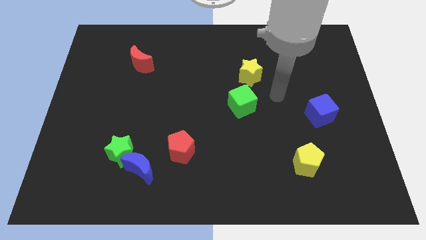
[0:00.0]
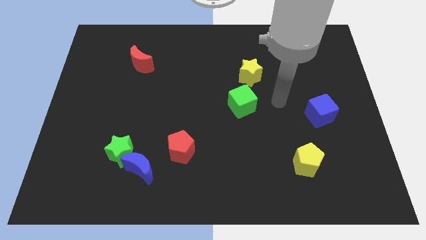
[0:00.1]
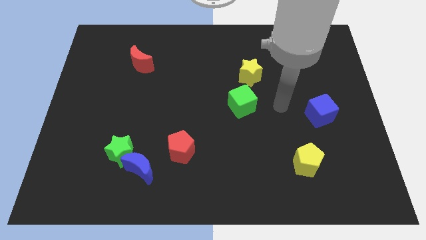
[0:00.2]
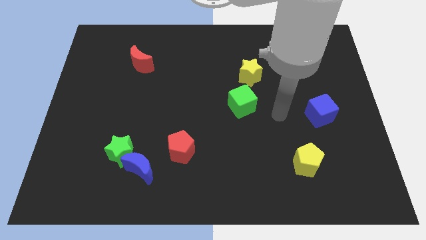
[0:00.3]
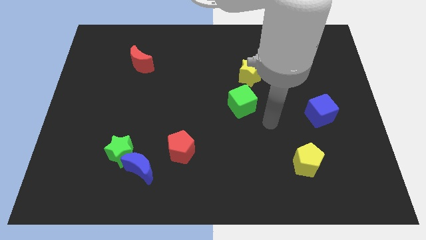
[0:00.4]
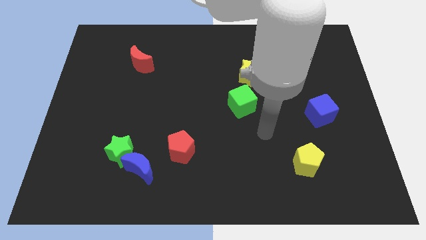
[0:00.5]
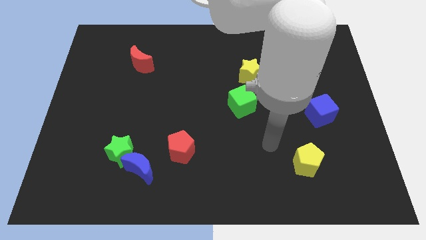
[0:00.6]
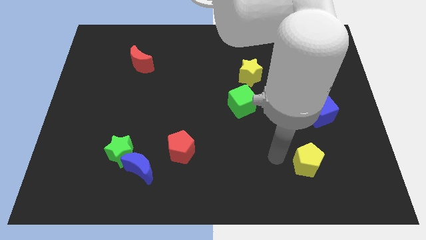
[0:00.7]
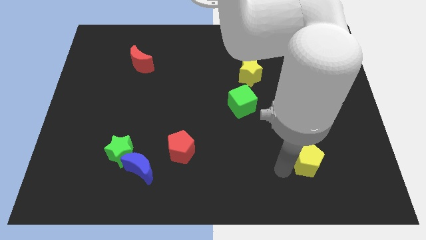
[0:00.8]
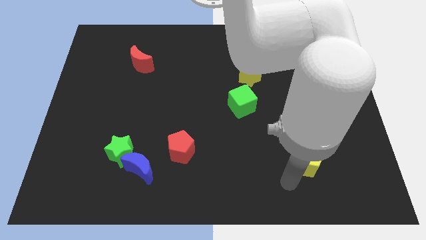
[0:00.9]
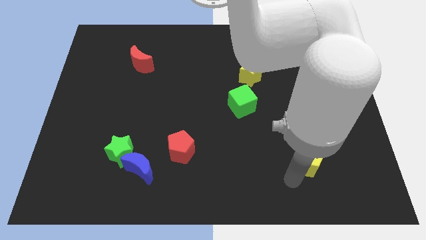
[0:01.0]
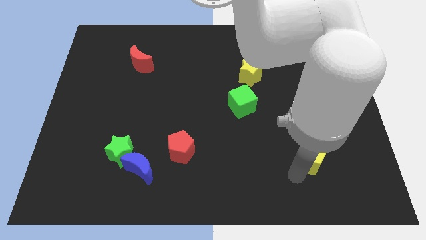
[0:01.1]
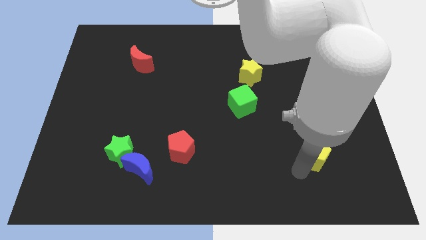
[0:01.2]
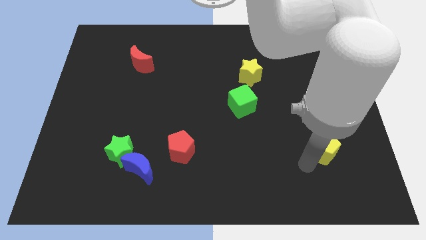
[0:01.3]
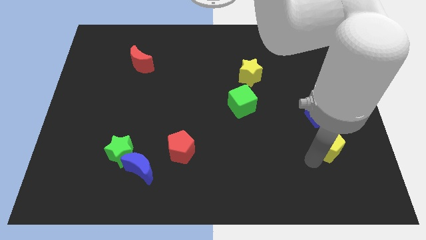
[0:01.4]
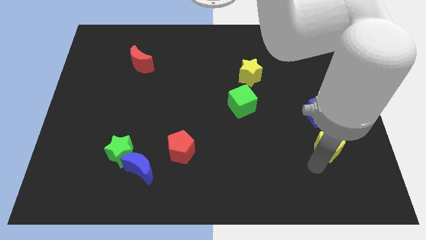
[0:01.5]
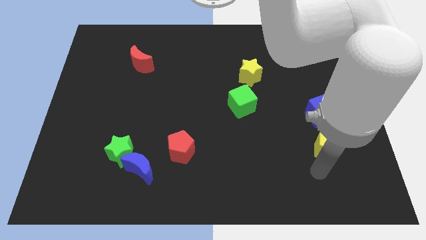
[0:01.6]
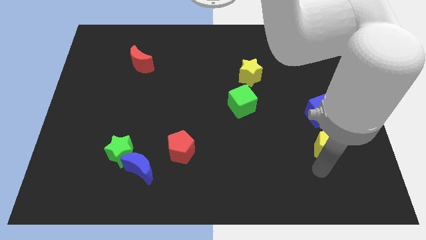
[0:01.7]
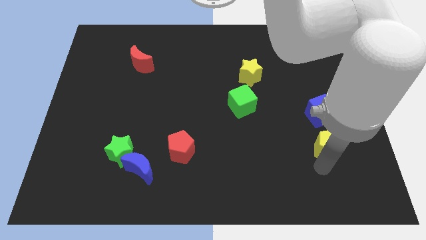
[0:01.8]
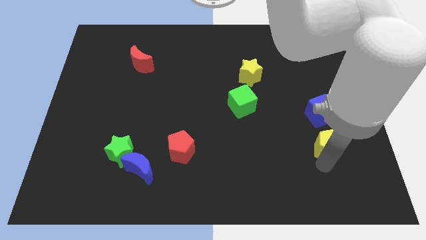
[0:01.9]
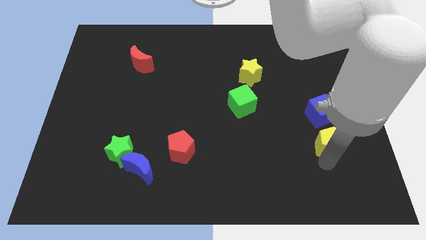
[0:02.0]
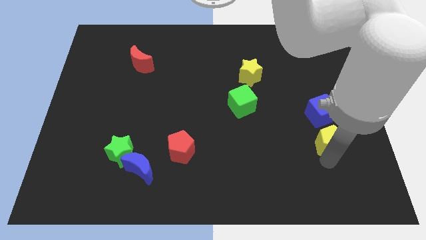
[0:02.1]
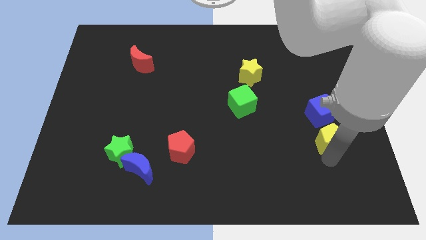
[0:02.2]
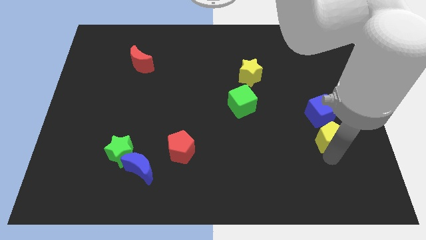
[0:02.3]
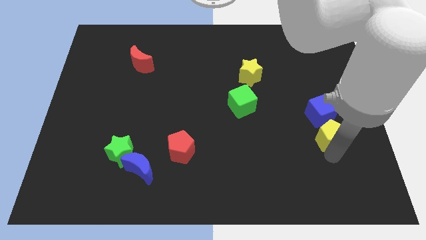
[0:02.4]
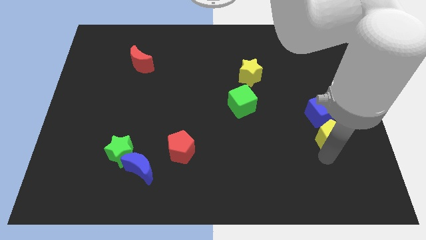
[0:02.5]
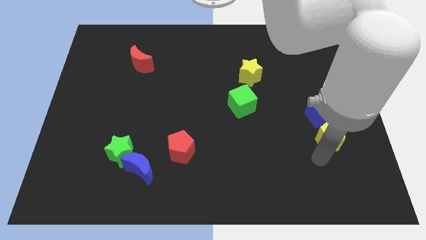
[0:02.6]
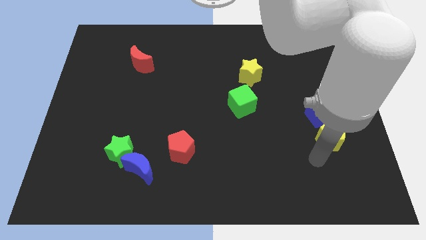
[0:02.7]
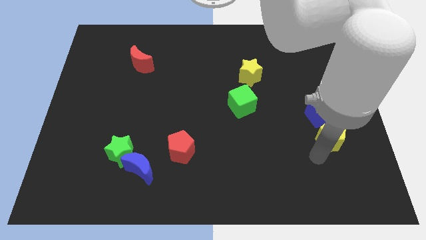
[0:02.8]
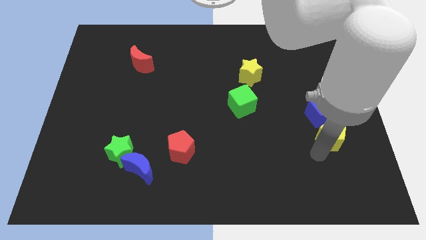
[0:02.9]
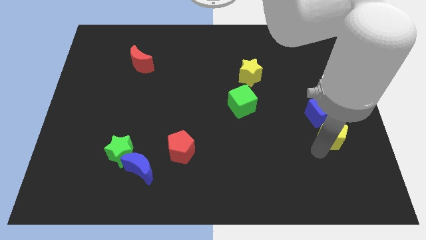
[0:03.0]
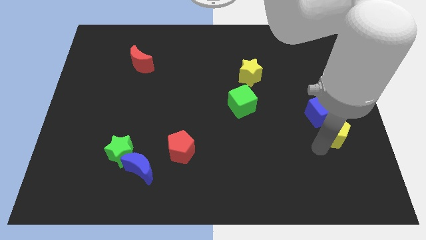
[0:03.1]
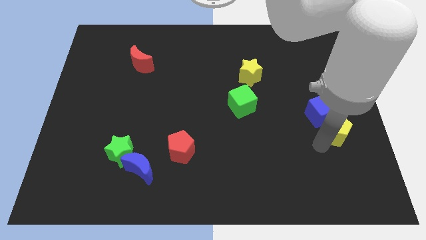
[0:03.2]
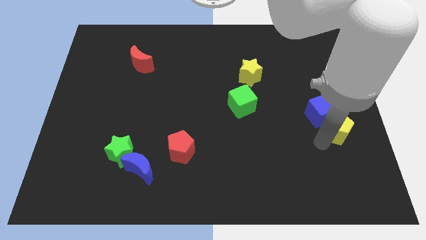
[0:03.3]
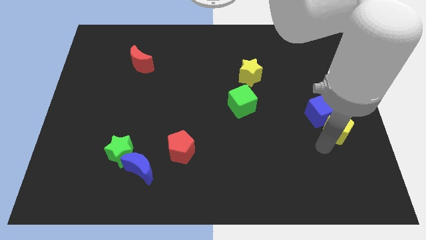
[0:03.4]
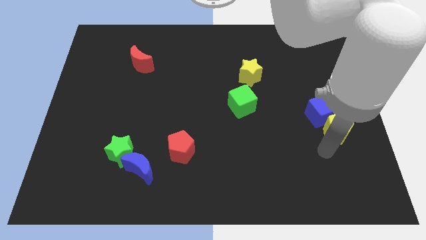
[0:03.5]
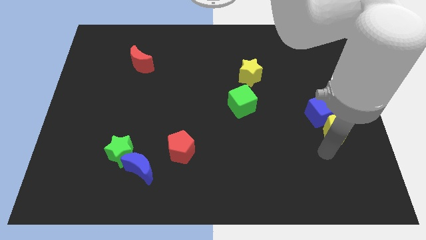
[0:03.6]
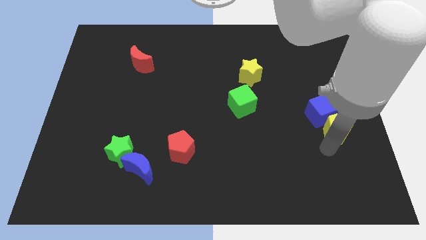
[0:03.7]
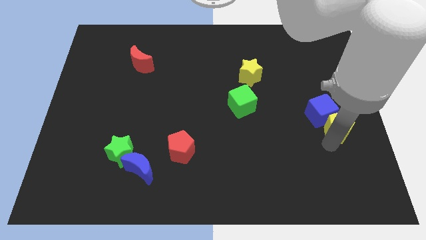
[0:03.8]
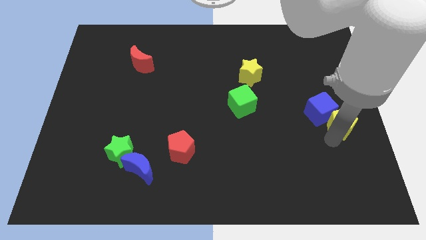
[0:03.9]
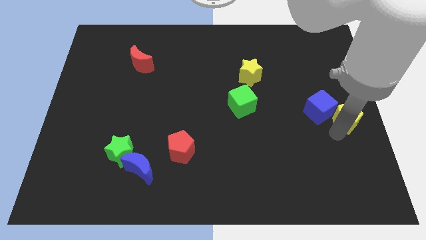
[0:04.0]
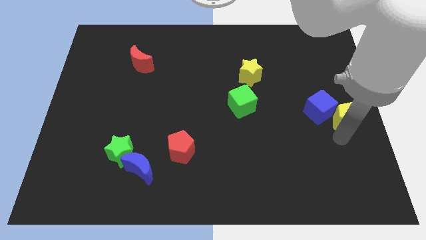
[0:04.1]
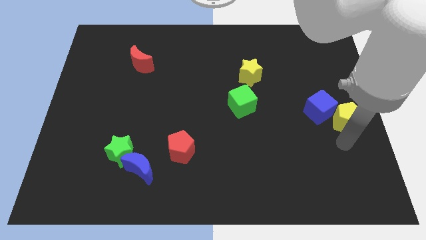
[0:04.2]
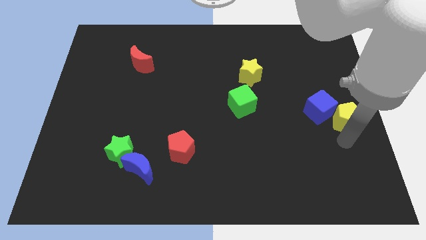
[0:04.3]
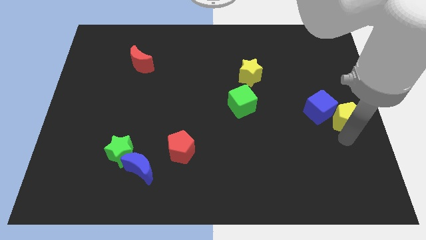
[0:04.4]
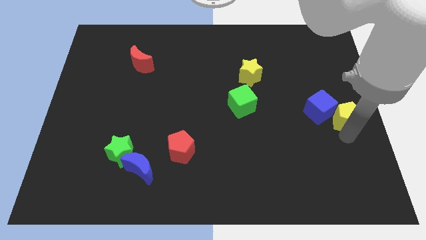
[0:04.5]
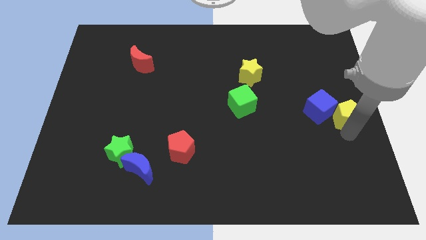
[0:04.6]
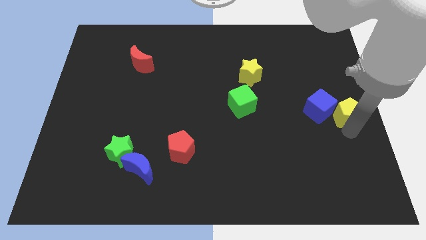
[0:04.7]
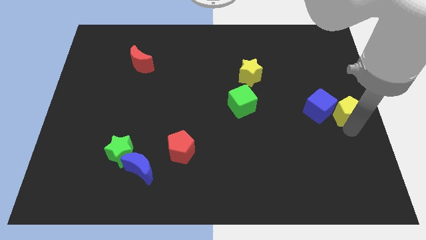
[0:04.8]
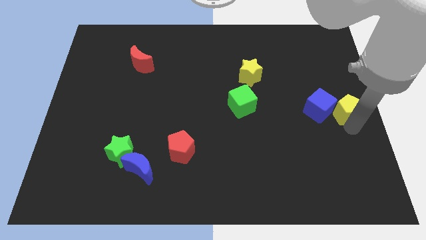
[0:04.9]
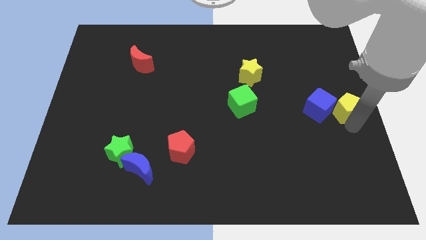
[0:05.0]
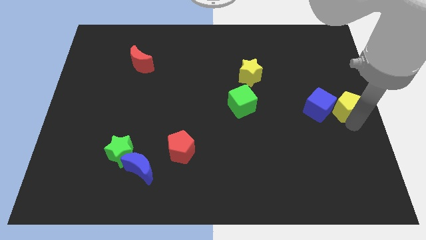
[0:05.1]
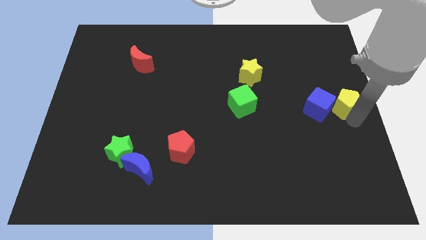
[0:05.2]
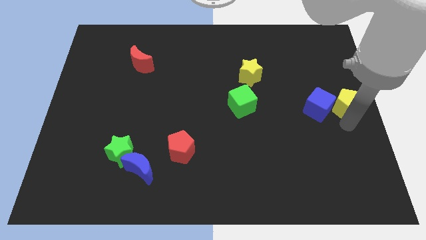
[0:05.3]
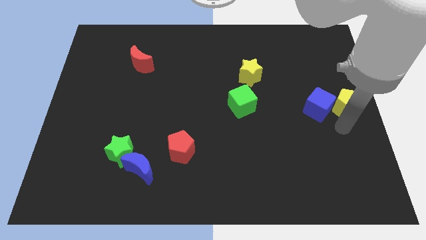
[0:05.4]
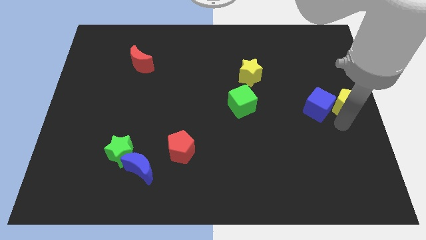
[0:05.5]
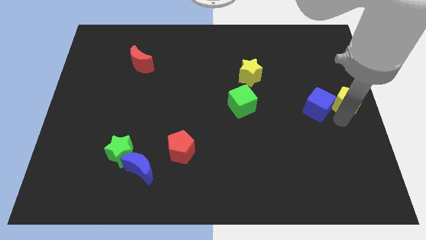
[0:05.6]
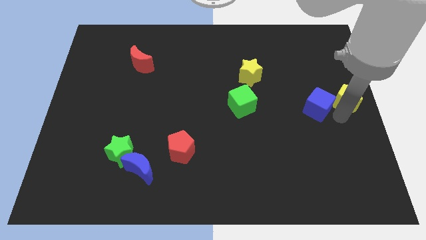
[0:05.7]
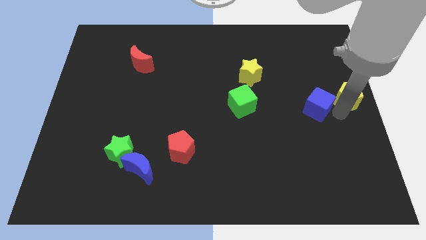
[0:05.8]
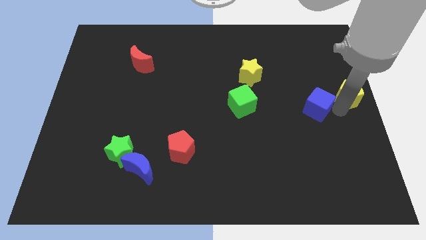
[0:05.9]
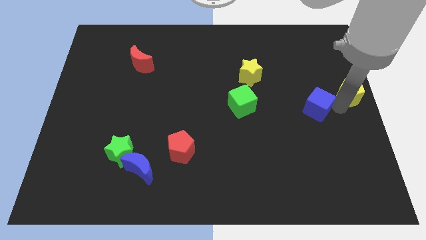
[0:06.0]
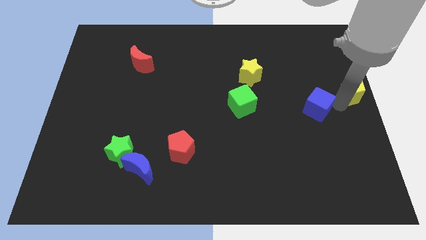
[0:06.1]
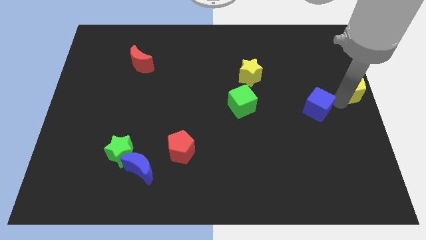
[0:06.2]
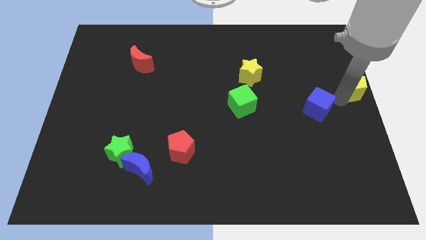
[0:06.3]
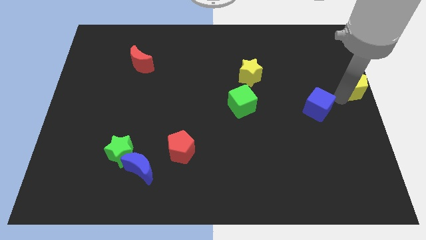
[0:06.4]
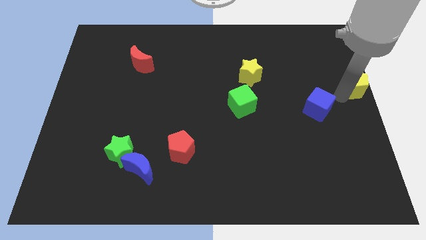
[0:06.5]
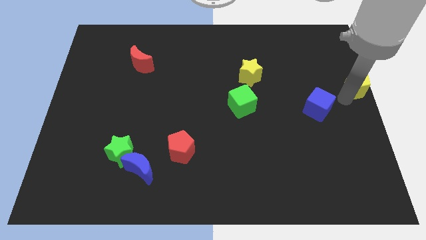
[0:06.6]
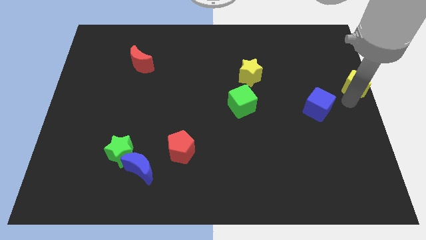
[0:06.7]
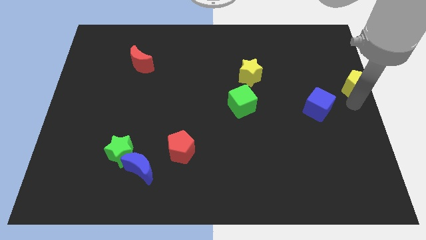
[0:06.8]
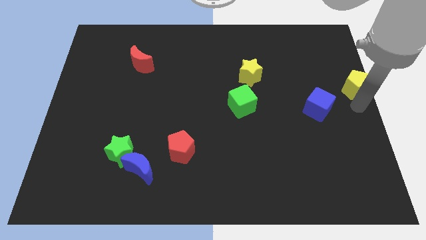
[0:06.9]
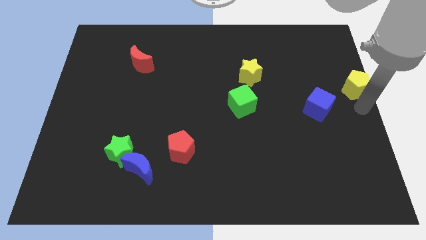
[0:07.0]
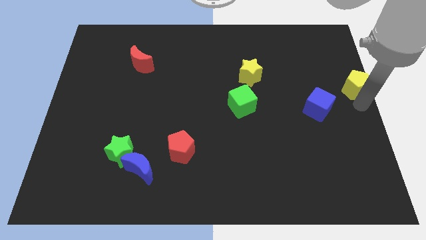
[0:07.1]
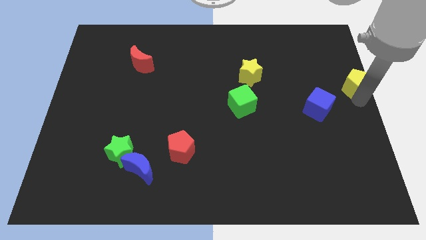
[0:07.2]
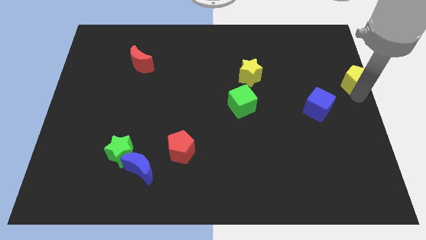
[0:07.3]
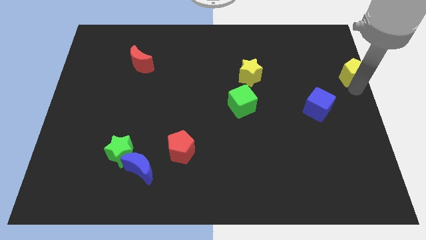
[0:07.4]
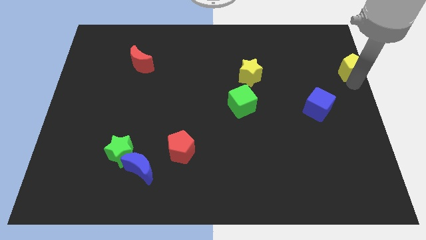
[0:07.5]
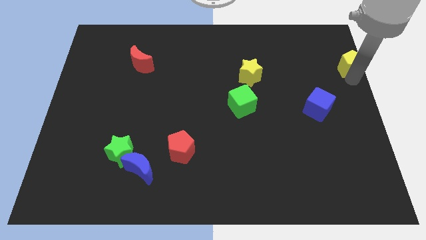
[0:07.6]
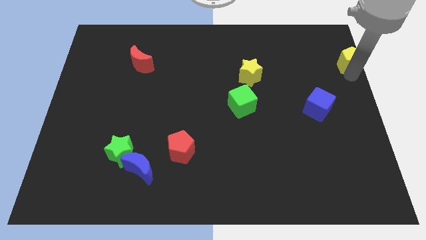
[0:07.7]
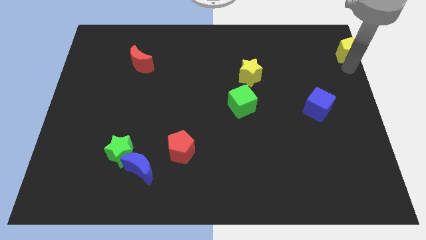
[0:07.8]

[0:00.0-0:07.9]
slide the yellow pentagon to the upper right corner
